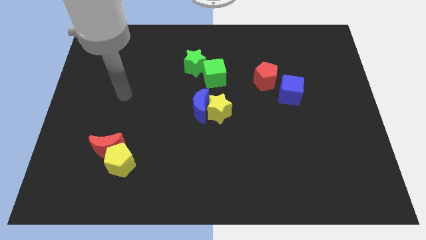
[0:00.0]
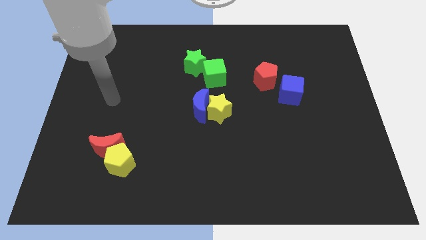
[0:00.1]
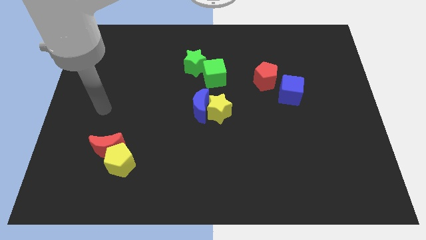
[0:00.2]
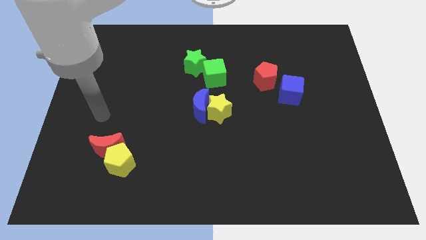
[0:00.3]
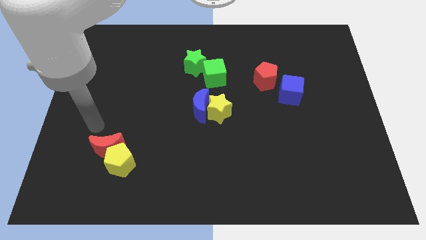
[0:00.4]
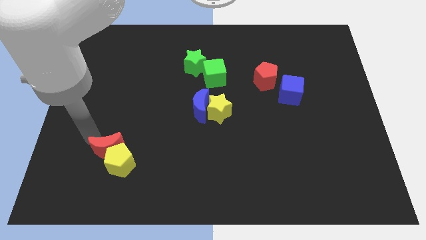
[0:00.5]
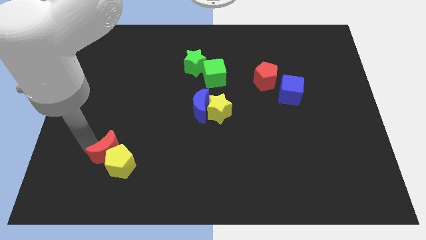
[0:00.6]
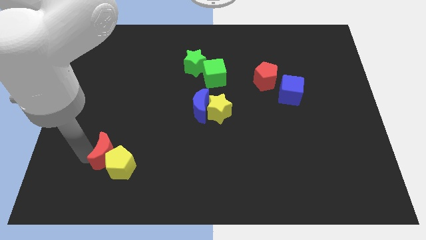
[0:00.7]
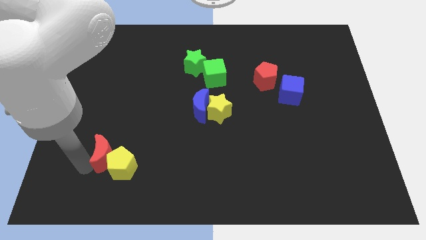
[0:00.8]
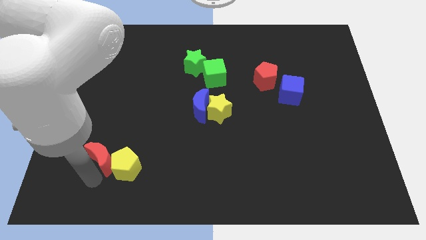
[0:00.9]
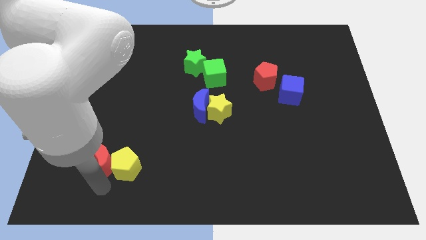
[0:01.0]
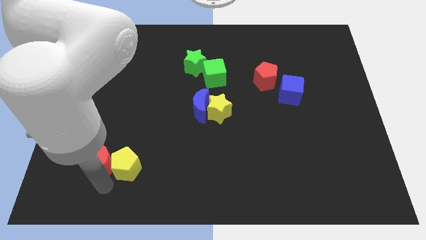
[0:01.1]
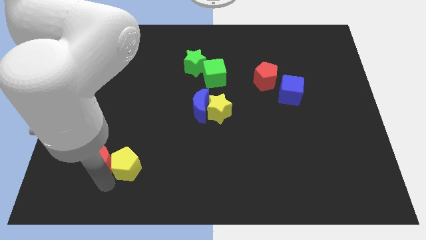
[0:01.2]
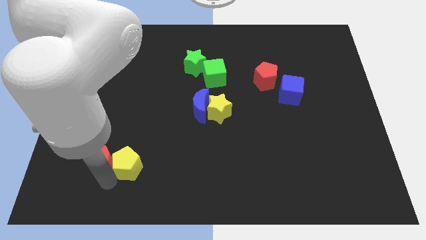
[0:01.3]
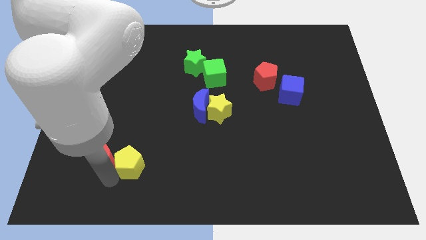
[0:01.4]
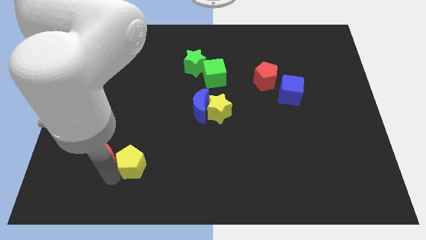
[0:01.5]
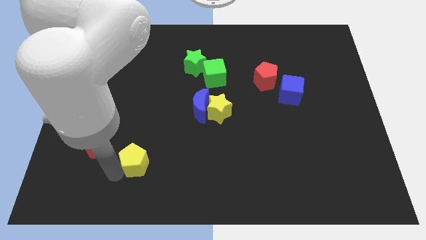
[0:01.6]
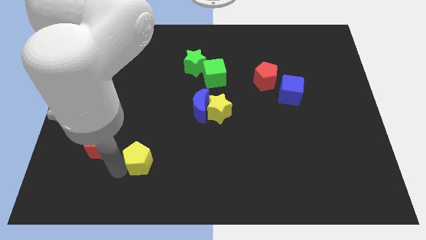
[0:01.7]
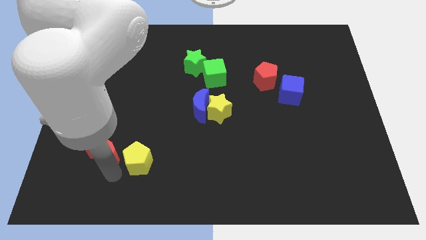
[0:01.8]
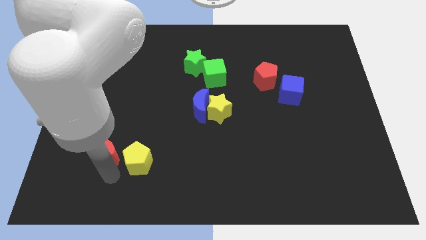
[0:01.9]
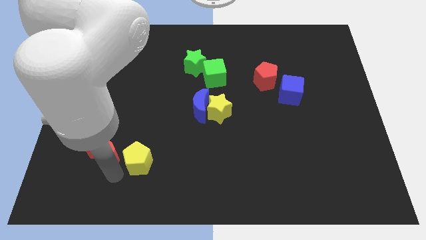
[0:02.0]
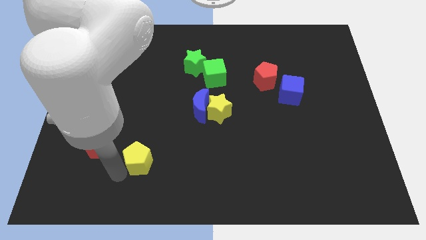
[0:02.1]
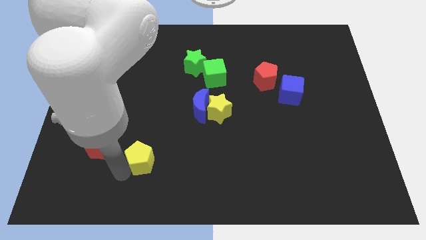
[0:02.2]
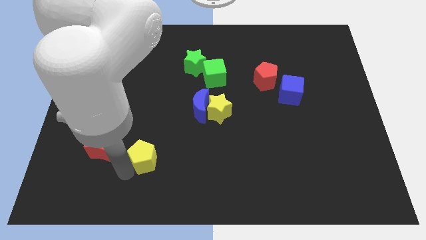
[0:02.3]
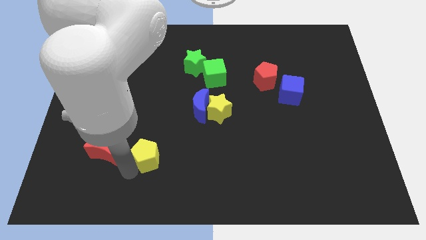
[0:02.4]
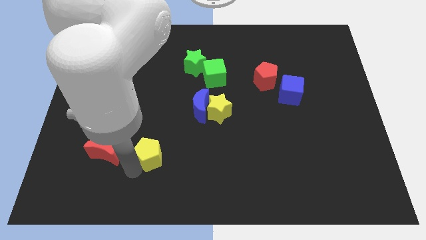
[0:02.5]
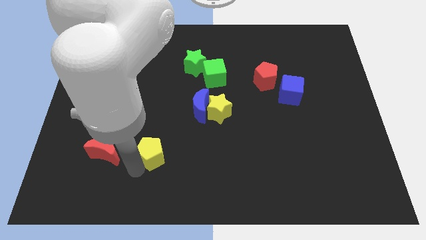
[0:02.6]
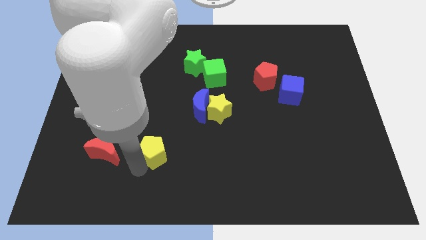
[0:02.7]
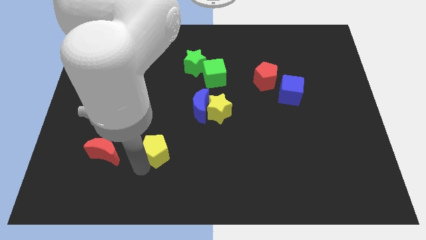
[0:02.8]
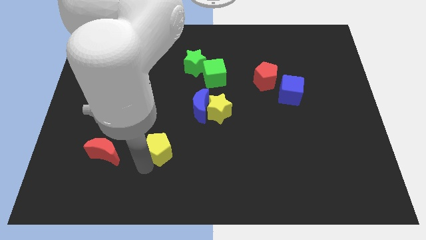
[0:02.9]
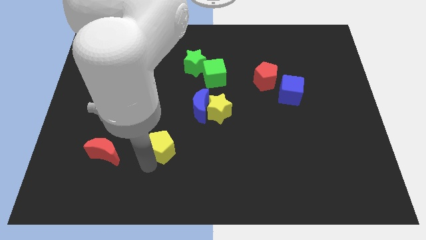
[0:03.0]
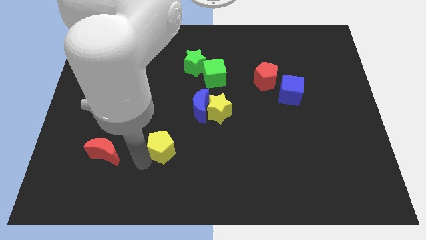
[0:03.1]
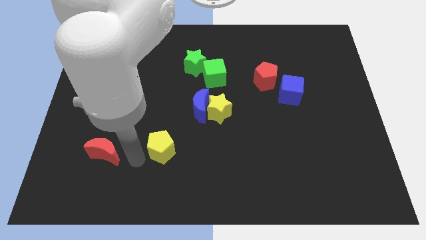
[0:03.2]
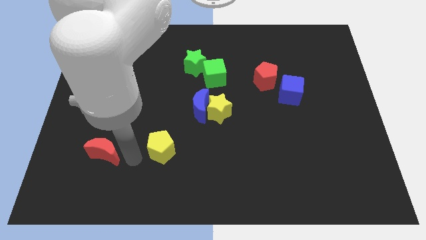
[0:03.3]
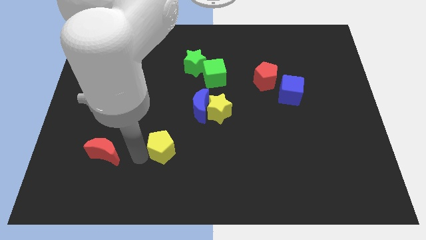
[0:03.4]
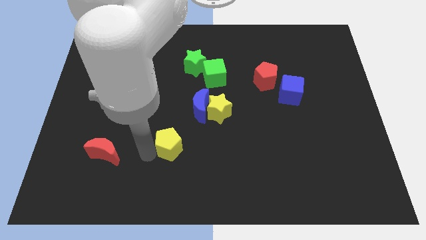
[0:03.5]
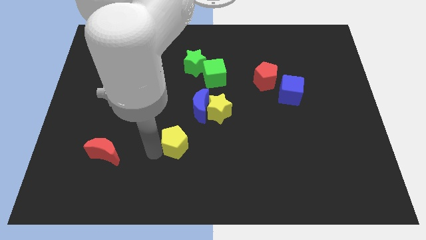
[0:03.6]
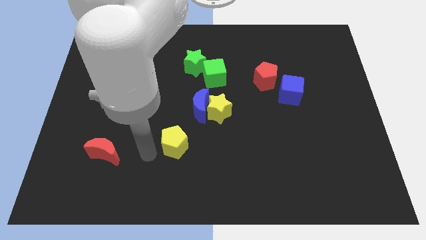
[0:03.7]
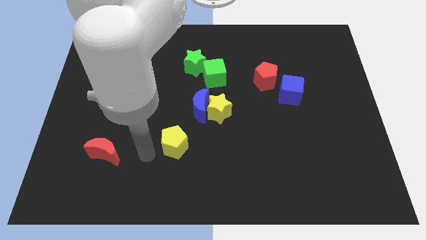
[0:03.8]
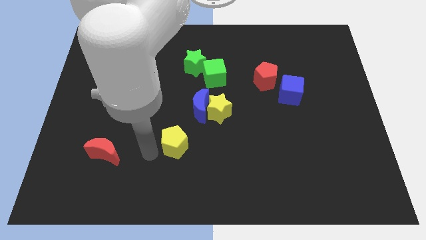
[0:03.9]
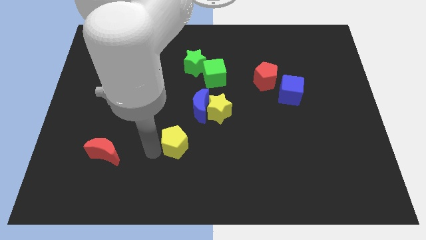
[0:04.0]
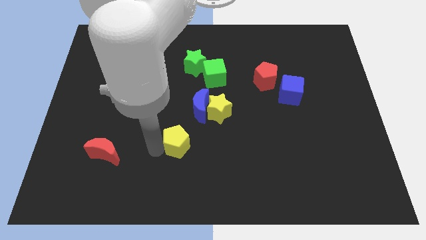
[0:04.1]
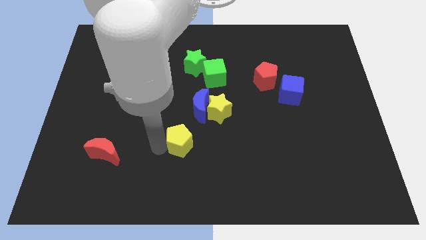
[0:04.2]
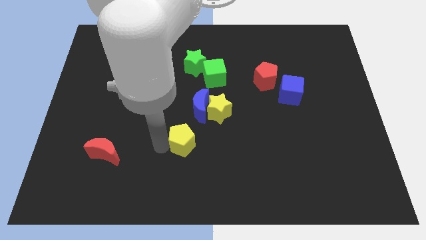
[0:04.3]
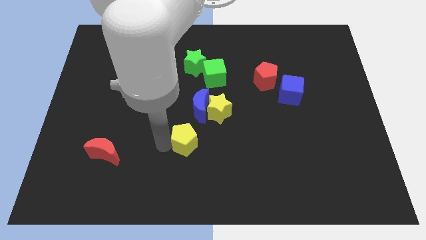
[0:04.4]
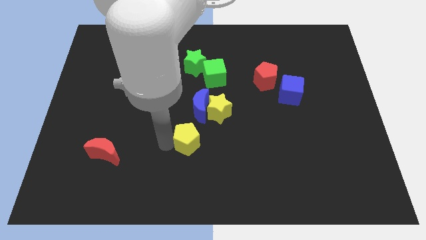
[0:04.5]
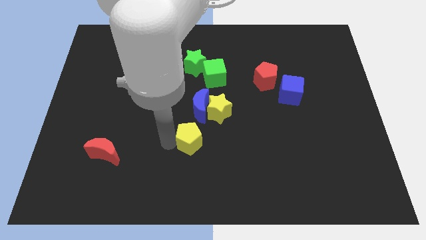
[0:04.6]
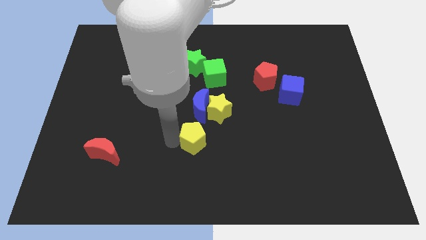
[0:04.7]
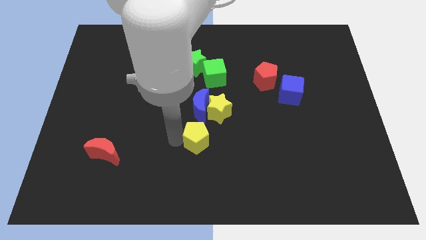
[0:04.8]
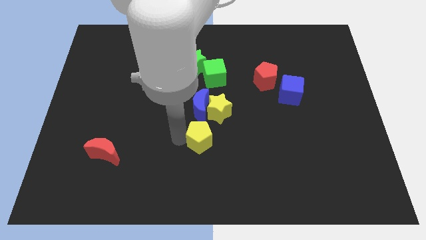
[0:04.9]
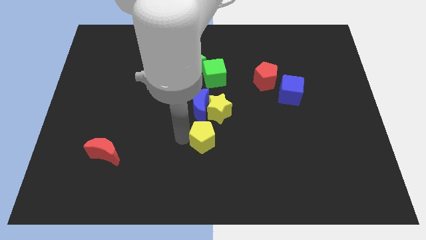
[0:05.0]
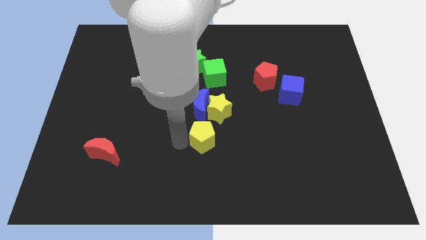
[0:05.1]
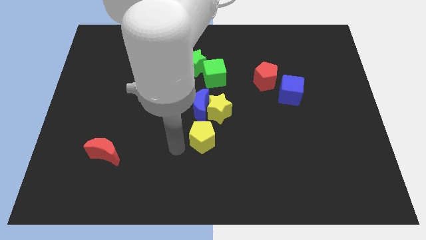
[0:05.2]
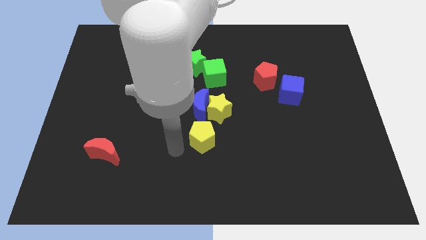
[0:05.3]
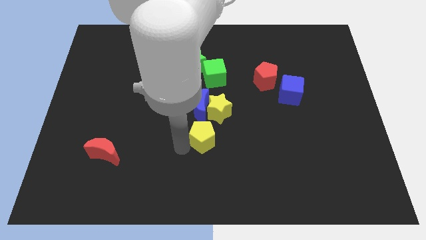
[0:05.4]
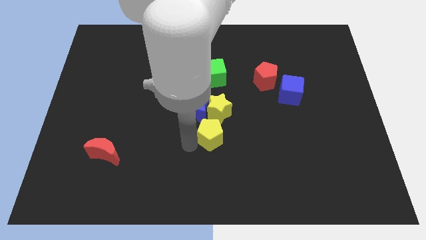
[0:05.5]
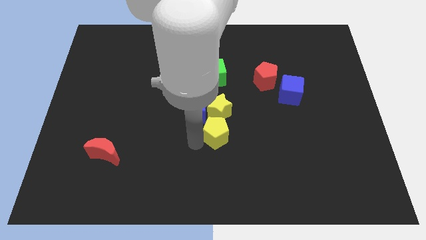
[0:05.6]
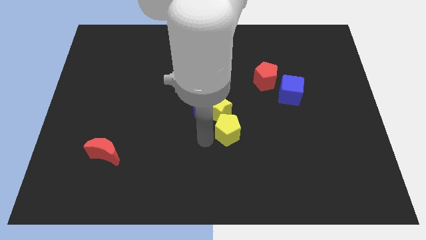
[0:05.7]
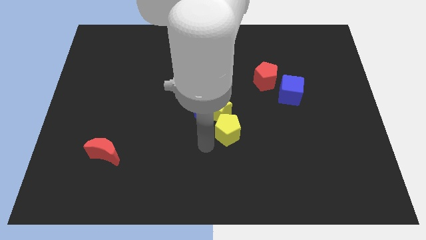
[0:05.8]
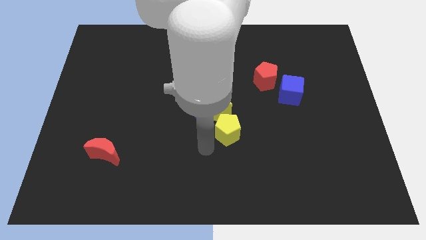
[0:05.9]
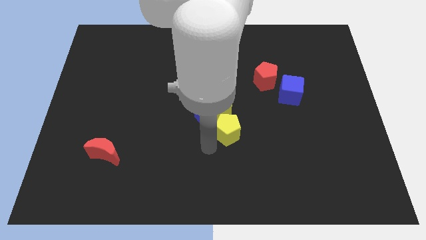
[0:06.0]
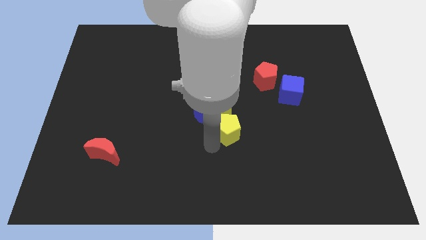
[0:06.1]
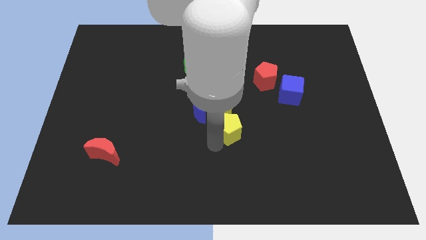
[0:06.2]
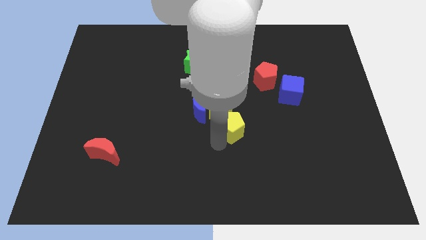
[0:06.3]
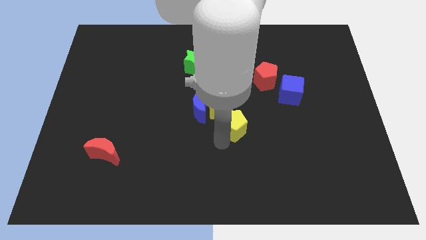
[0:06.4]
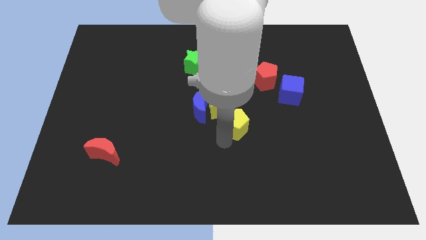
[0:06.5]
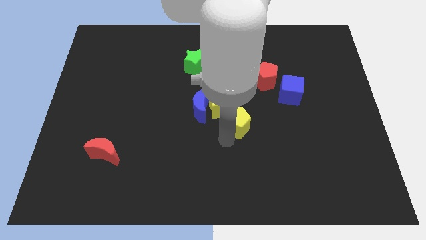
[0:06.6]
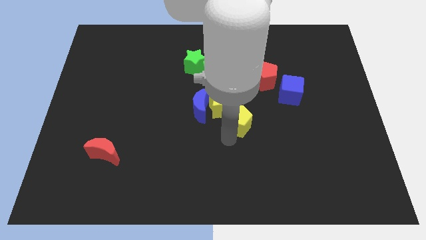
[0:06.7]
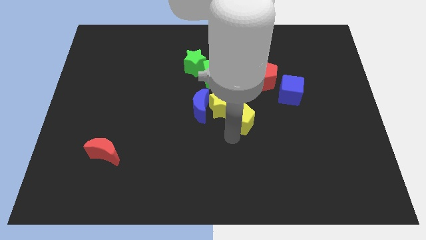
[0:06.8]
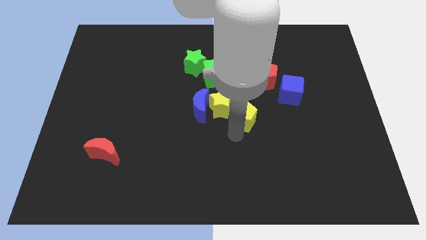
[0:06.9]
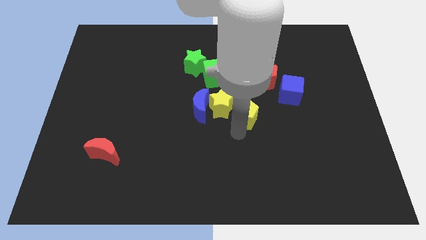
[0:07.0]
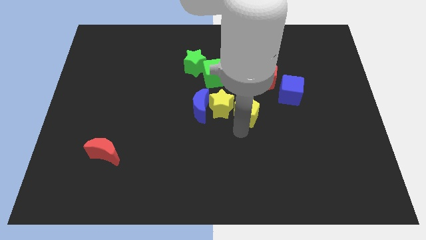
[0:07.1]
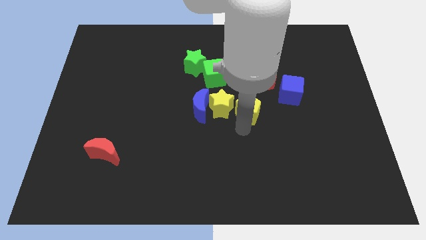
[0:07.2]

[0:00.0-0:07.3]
slide the yellow pentagon diagonally down and to the left of the red pentagon
